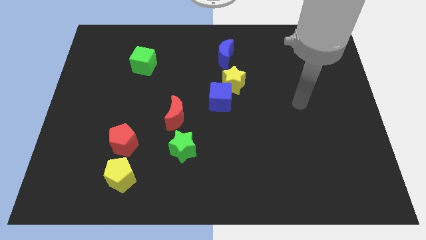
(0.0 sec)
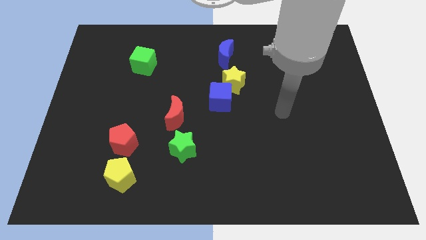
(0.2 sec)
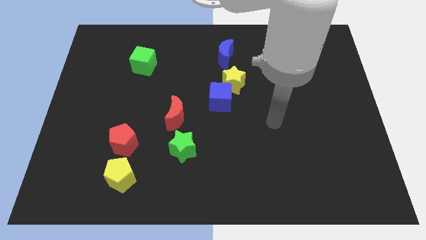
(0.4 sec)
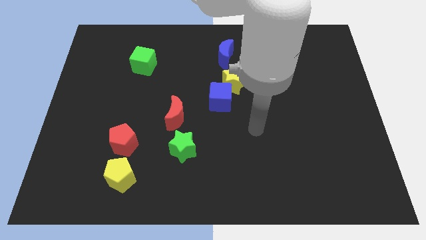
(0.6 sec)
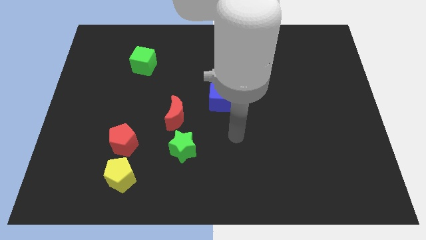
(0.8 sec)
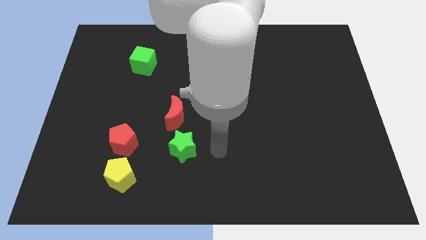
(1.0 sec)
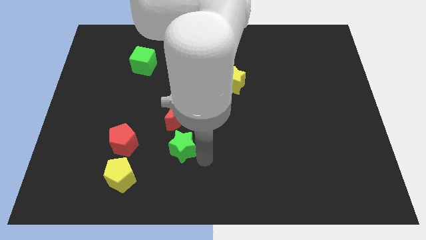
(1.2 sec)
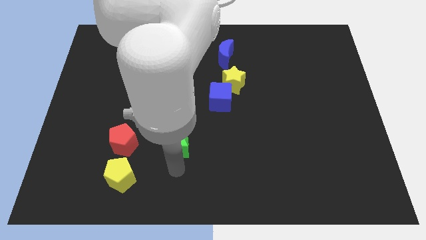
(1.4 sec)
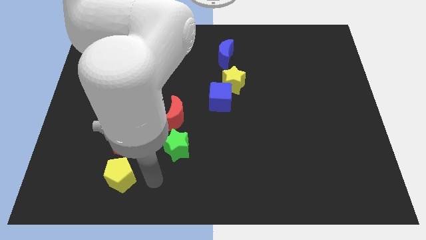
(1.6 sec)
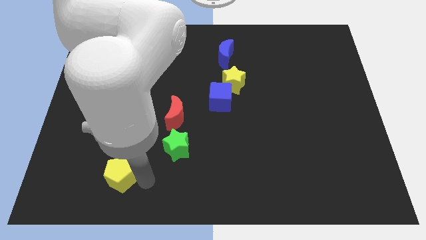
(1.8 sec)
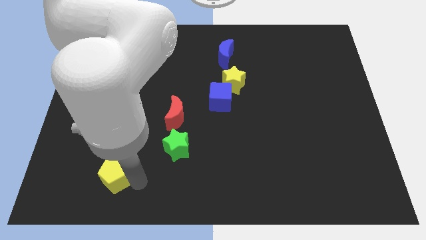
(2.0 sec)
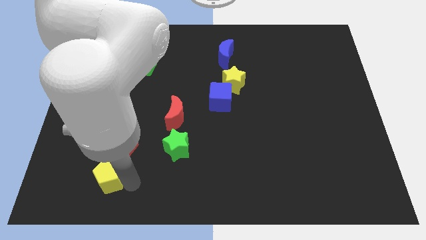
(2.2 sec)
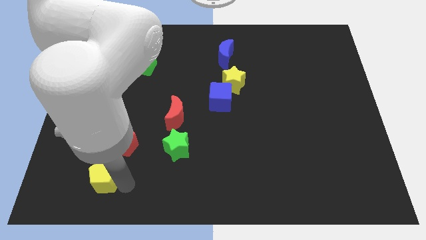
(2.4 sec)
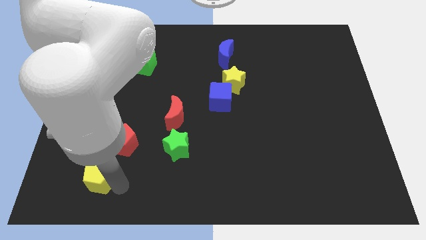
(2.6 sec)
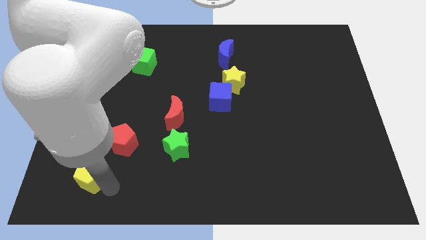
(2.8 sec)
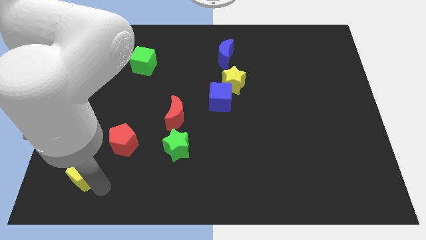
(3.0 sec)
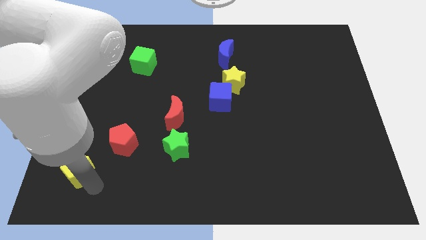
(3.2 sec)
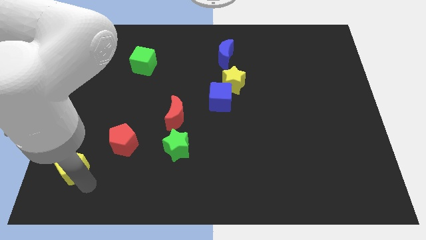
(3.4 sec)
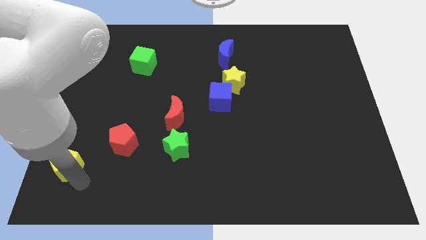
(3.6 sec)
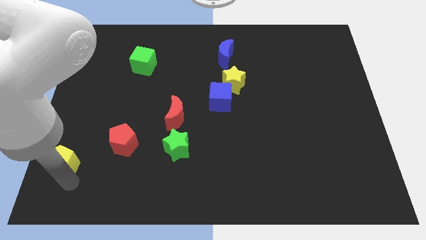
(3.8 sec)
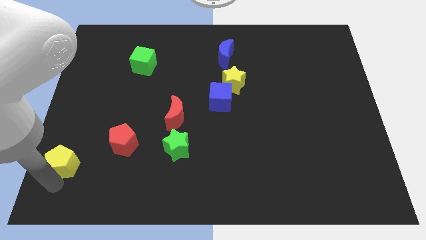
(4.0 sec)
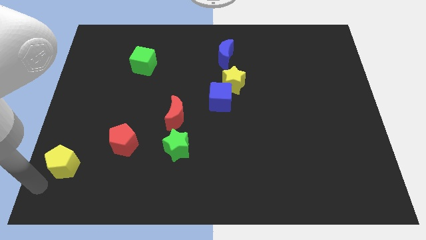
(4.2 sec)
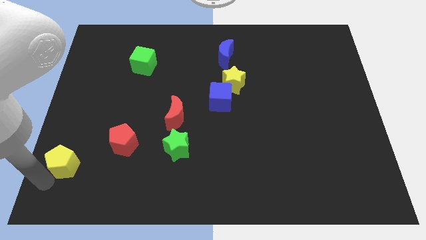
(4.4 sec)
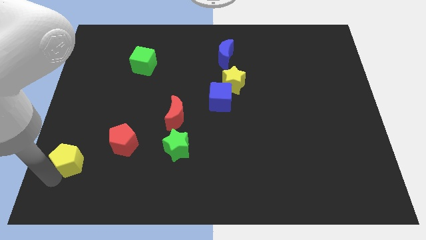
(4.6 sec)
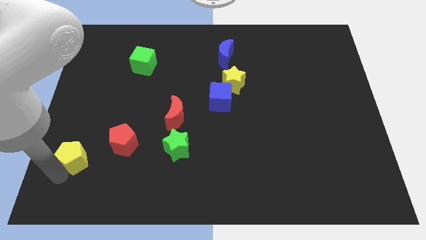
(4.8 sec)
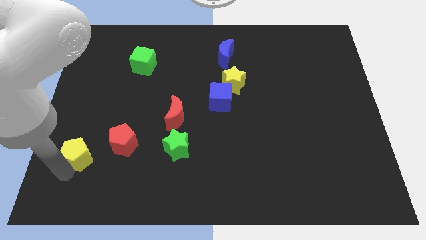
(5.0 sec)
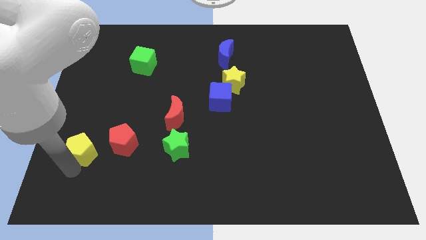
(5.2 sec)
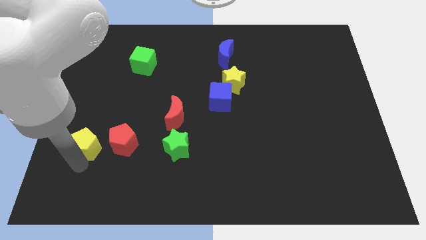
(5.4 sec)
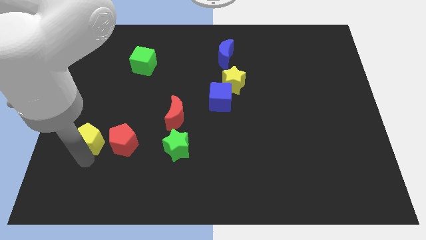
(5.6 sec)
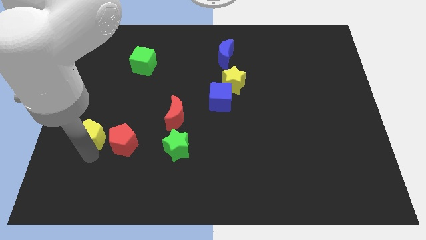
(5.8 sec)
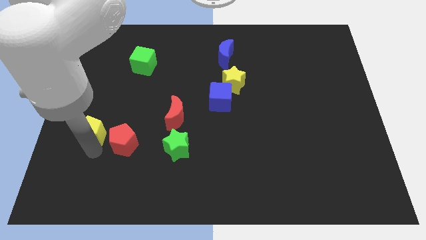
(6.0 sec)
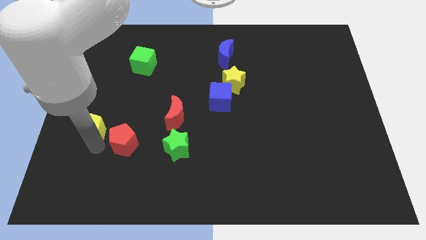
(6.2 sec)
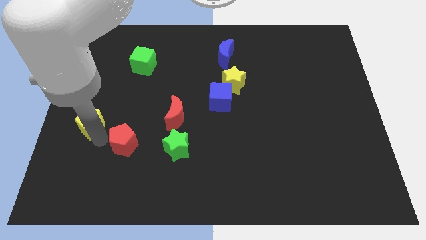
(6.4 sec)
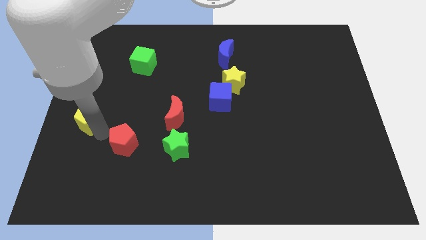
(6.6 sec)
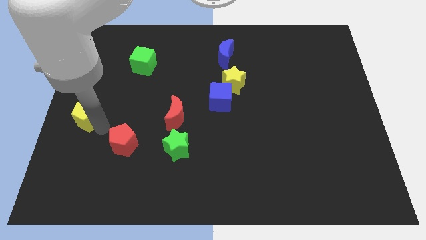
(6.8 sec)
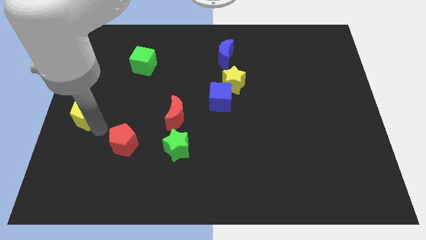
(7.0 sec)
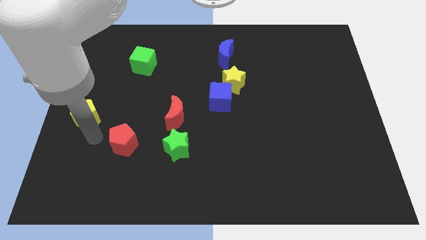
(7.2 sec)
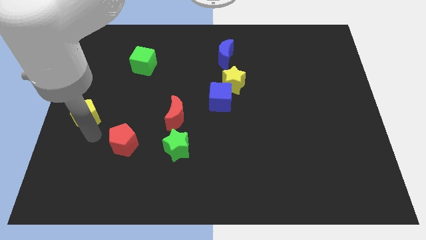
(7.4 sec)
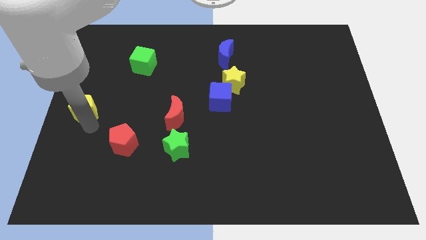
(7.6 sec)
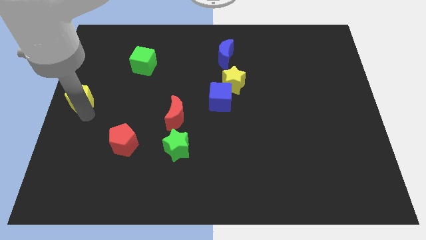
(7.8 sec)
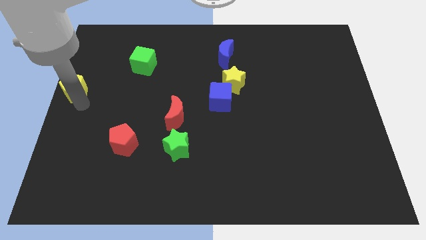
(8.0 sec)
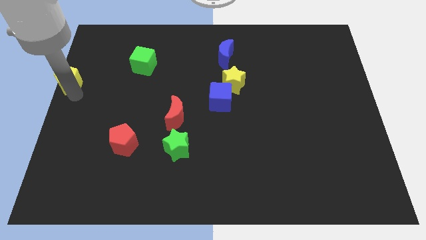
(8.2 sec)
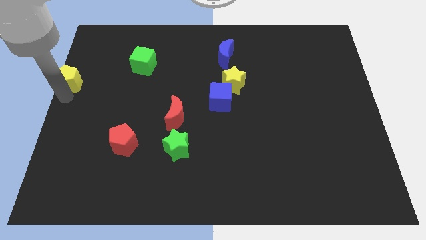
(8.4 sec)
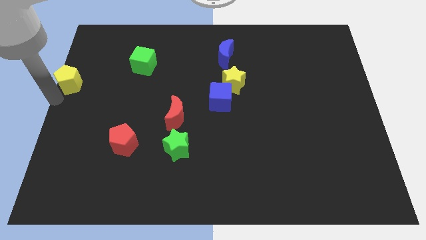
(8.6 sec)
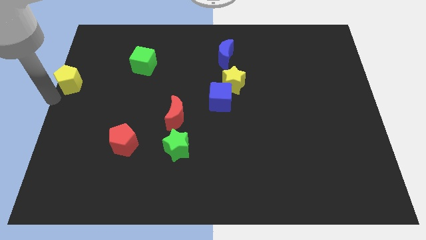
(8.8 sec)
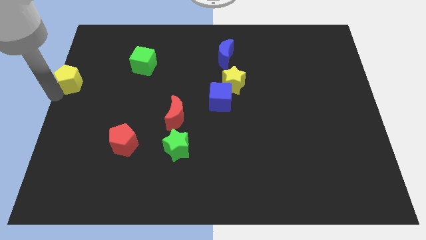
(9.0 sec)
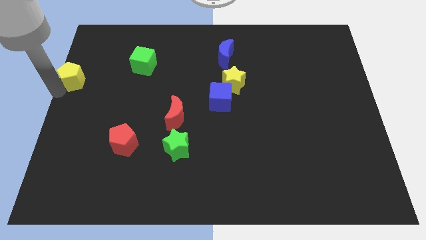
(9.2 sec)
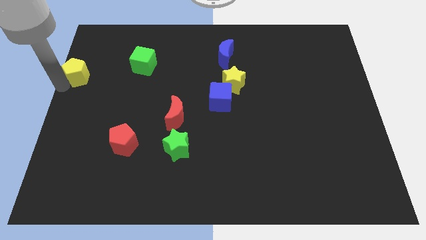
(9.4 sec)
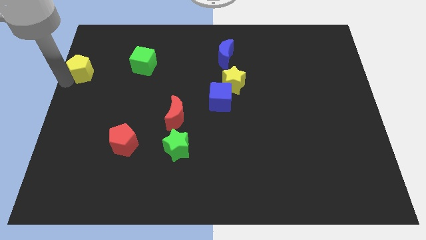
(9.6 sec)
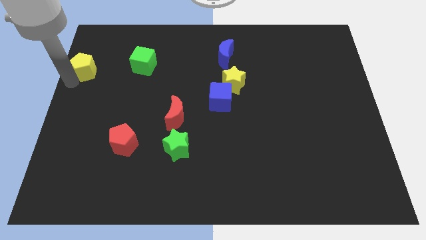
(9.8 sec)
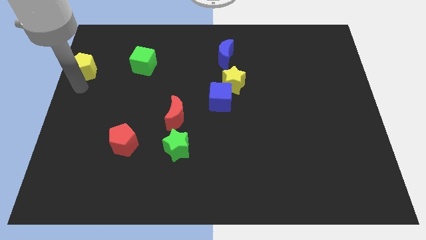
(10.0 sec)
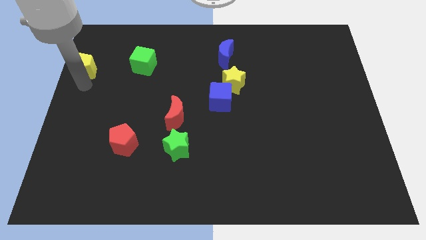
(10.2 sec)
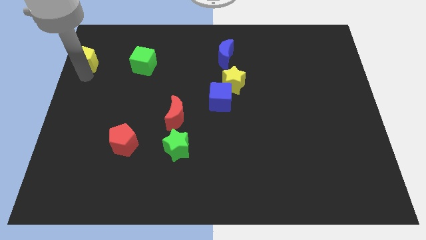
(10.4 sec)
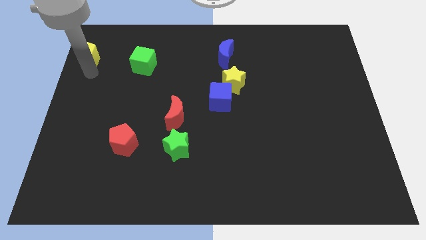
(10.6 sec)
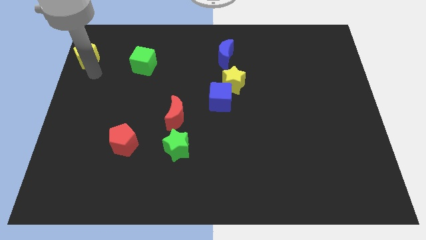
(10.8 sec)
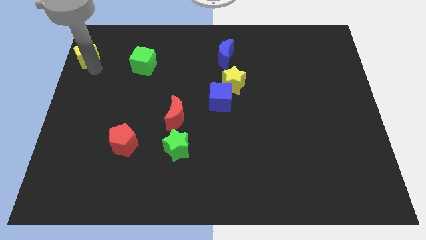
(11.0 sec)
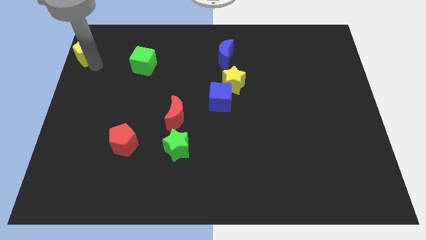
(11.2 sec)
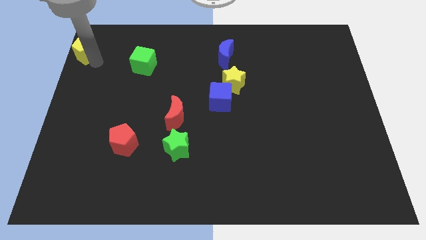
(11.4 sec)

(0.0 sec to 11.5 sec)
move the yellow pentagon to the top left of the board

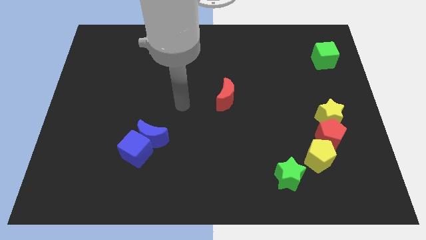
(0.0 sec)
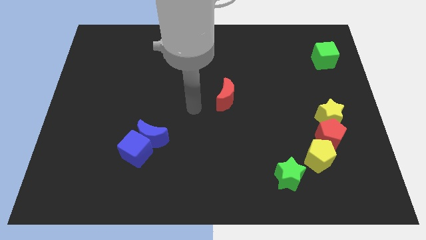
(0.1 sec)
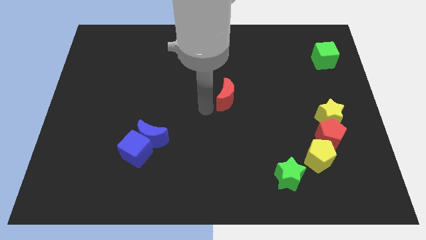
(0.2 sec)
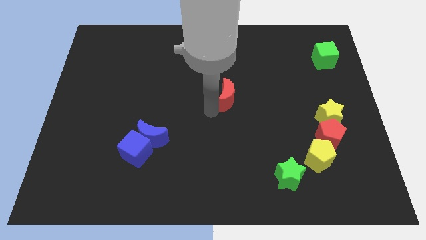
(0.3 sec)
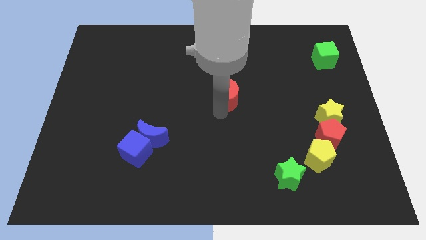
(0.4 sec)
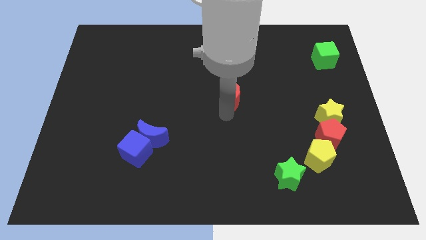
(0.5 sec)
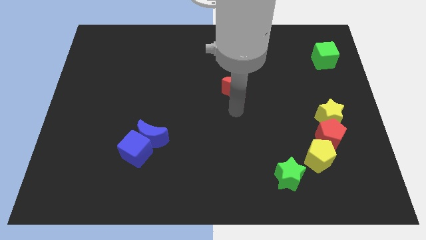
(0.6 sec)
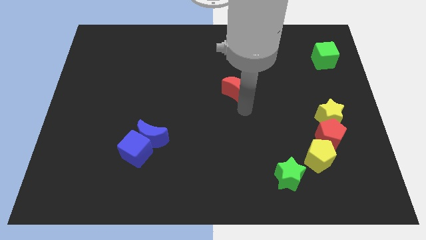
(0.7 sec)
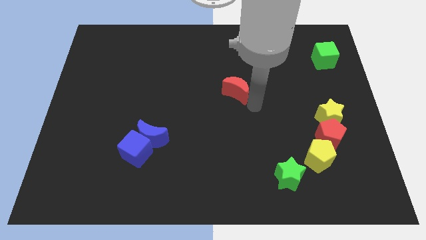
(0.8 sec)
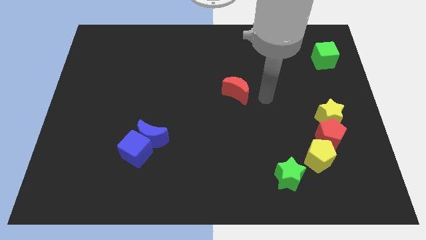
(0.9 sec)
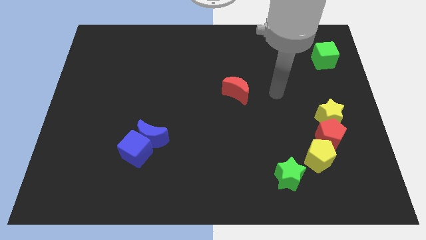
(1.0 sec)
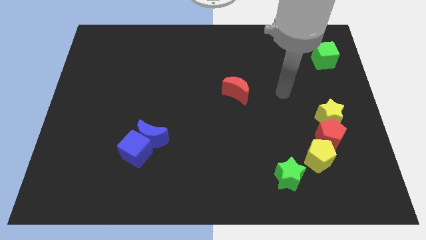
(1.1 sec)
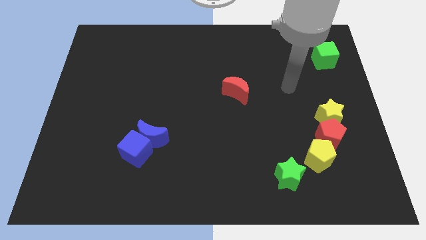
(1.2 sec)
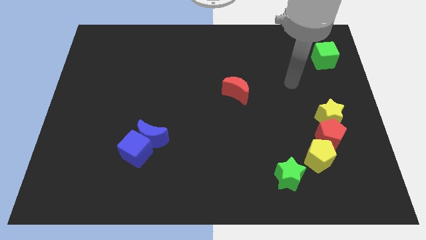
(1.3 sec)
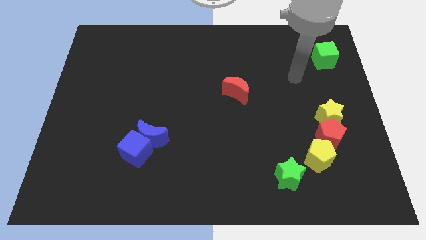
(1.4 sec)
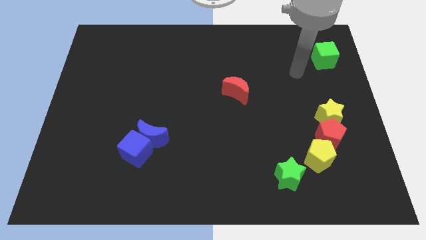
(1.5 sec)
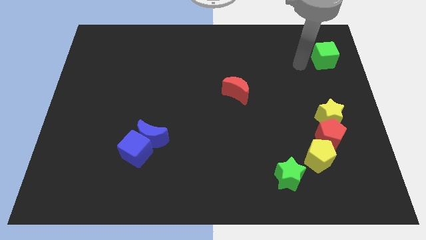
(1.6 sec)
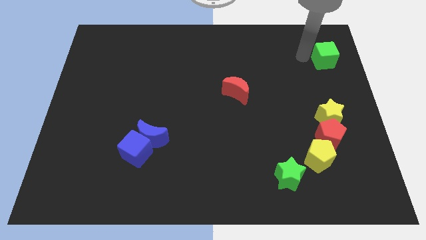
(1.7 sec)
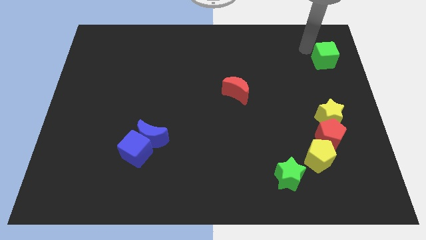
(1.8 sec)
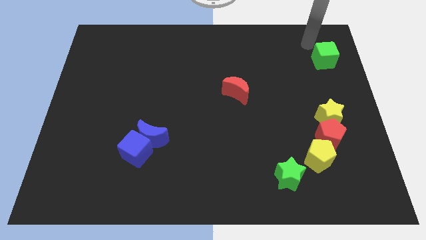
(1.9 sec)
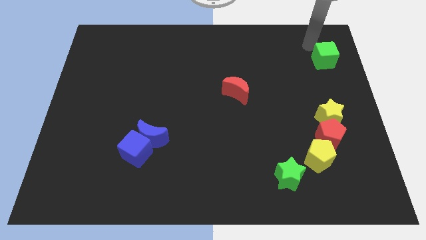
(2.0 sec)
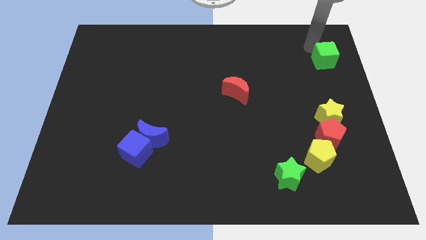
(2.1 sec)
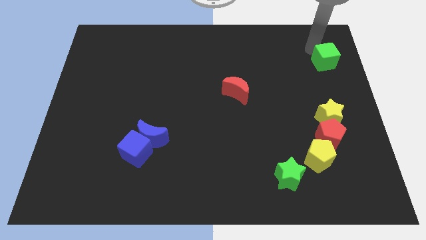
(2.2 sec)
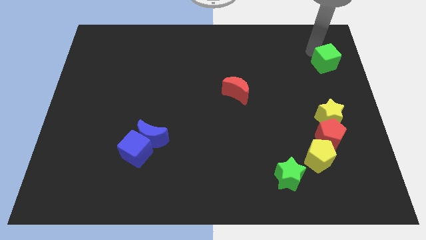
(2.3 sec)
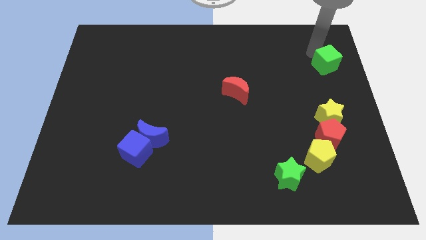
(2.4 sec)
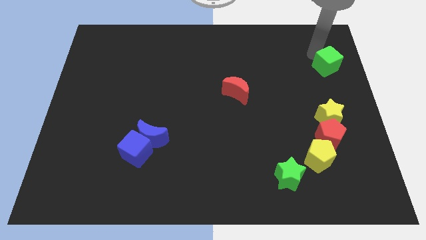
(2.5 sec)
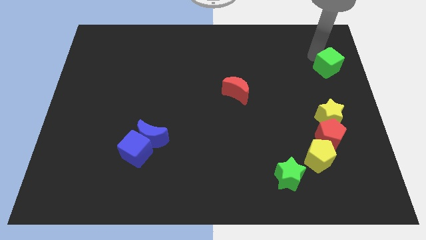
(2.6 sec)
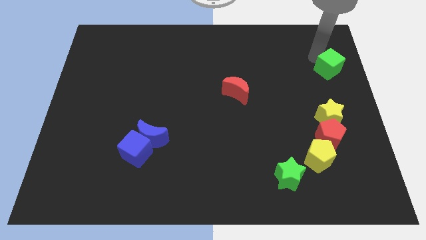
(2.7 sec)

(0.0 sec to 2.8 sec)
push the green cube to the right side
